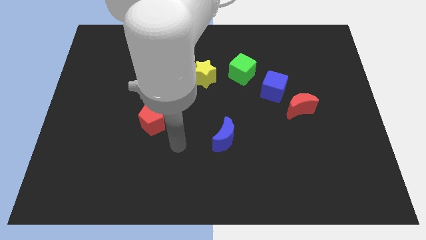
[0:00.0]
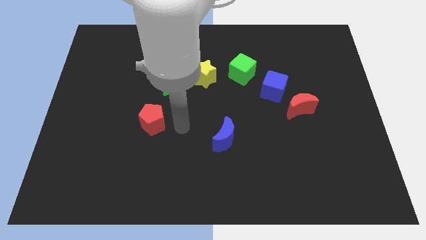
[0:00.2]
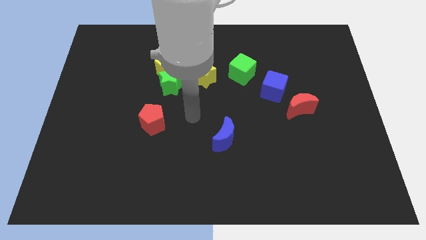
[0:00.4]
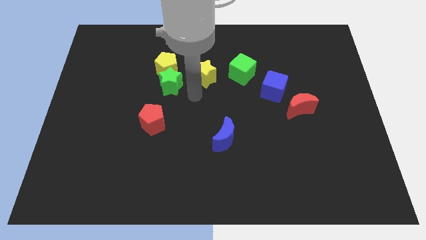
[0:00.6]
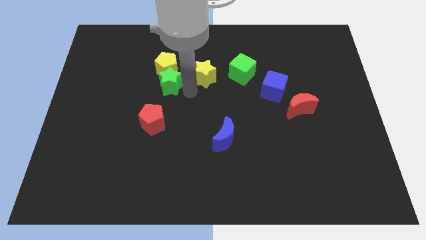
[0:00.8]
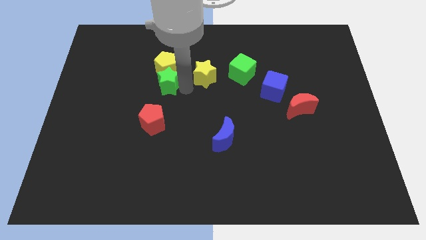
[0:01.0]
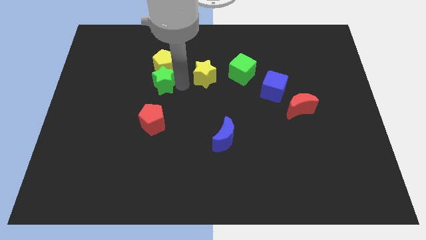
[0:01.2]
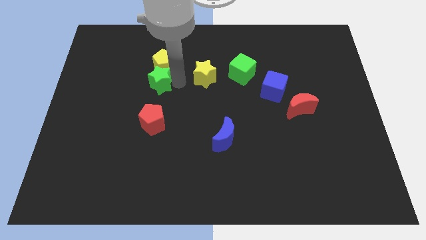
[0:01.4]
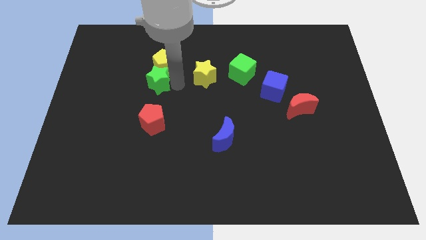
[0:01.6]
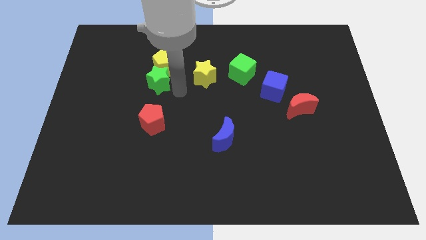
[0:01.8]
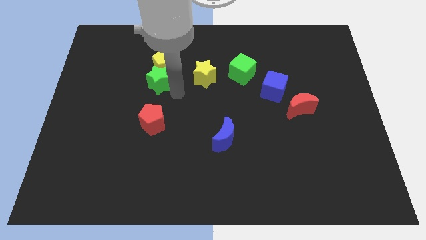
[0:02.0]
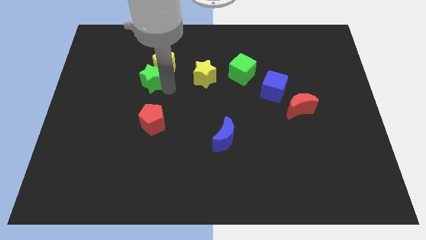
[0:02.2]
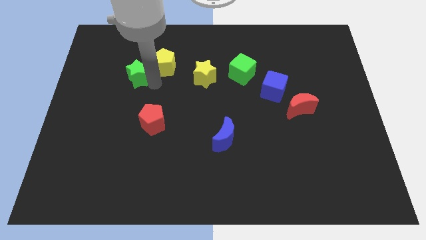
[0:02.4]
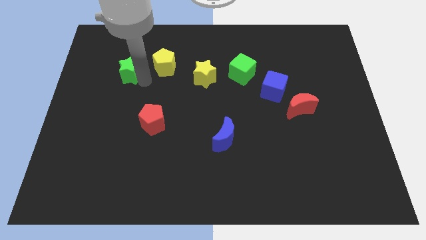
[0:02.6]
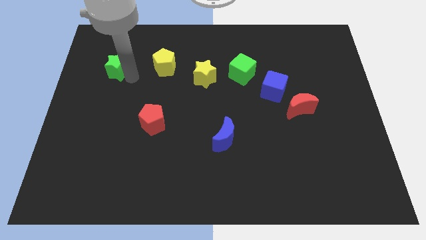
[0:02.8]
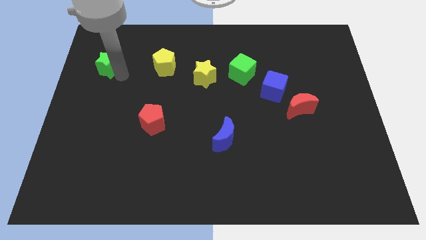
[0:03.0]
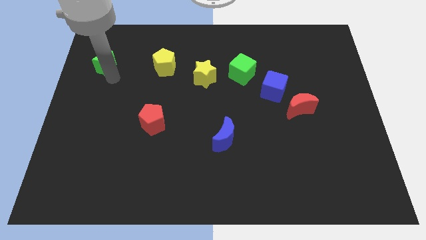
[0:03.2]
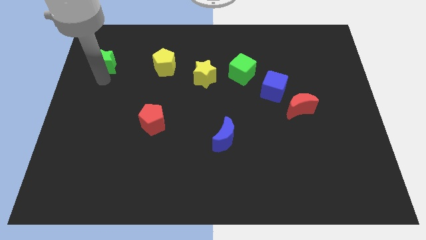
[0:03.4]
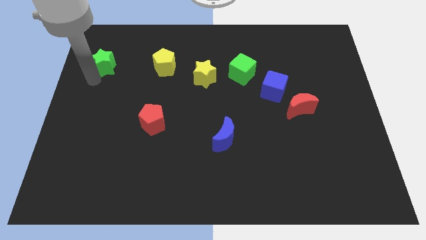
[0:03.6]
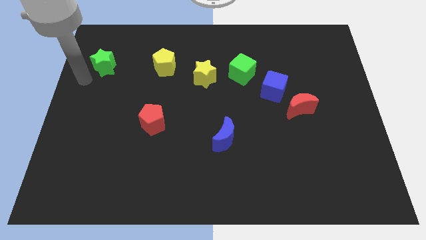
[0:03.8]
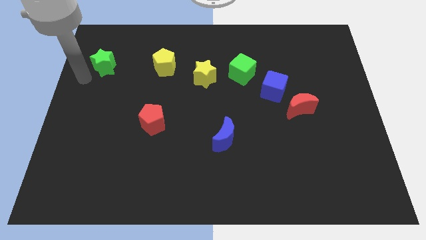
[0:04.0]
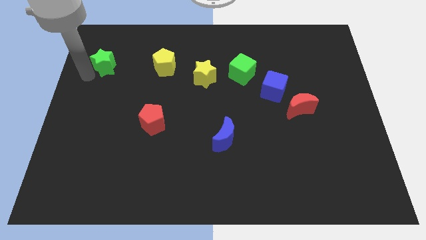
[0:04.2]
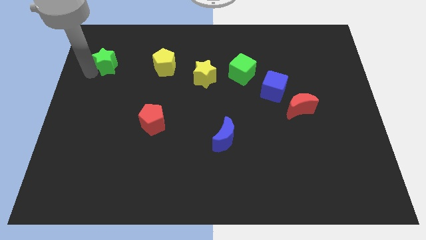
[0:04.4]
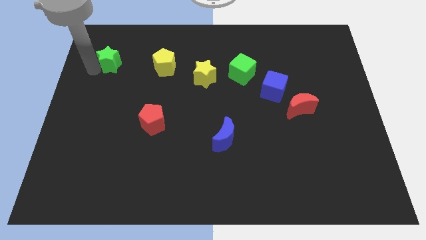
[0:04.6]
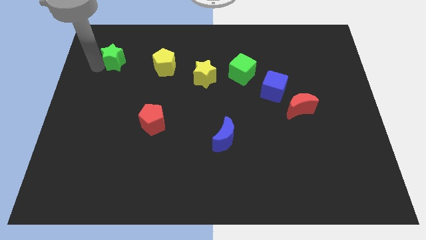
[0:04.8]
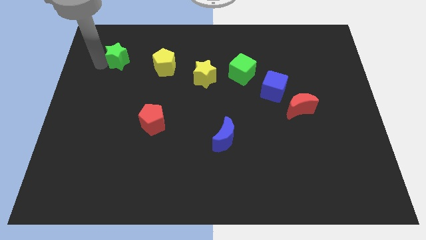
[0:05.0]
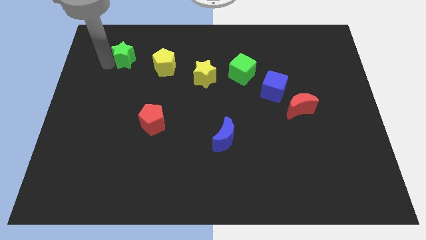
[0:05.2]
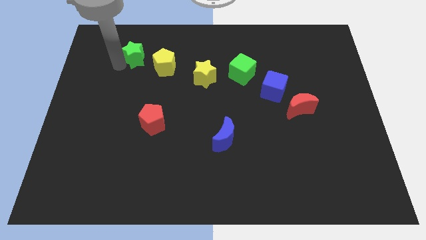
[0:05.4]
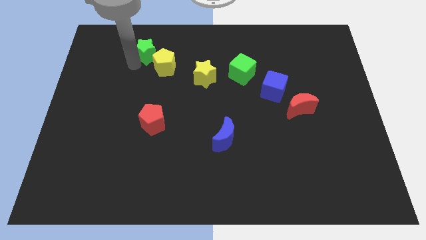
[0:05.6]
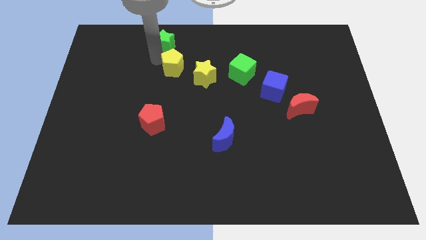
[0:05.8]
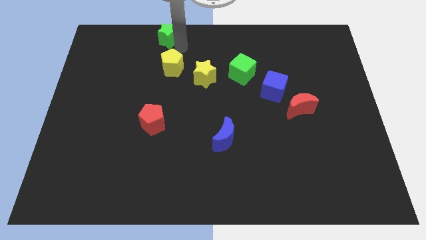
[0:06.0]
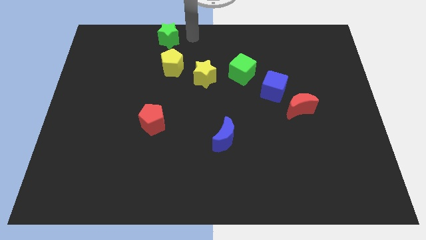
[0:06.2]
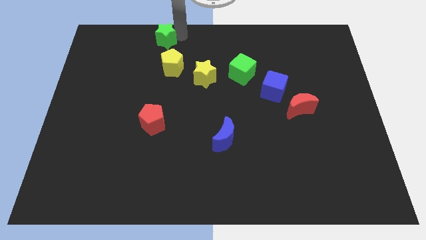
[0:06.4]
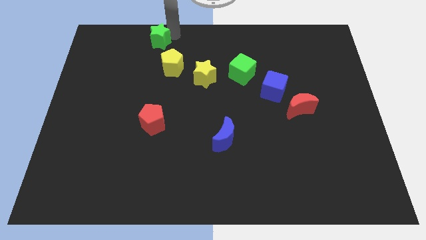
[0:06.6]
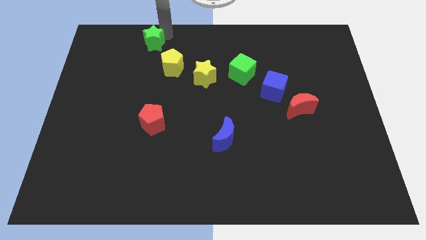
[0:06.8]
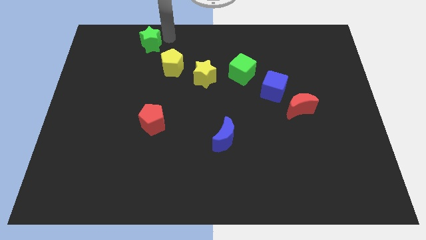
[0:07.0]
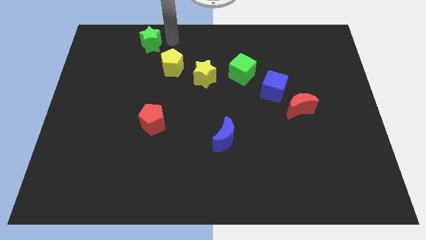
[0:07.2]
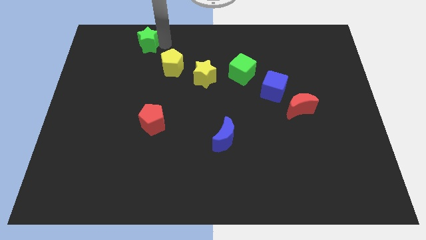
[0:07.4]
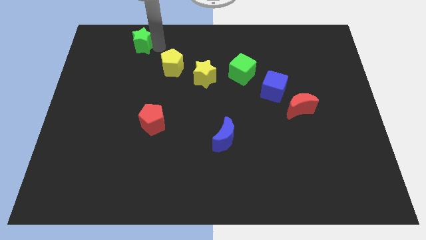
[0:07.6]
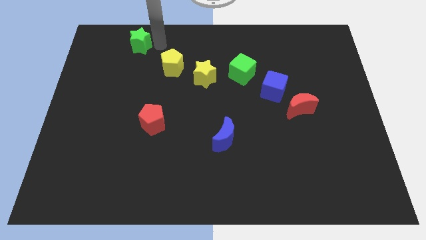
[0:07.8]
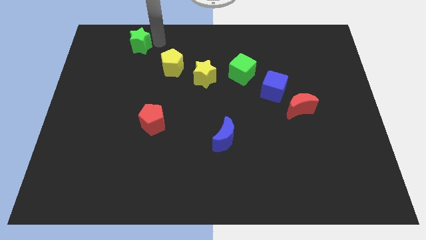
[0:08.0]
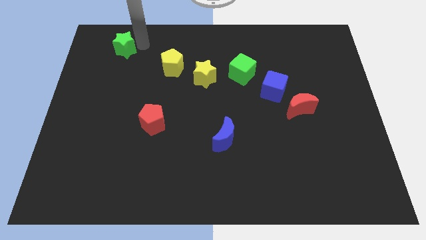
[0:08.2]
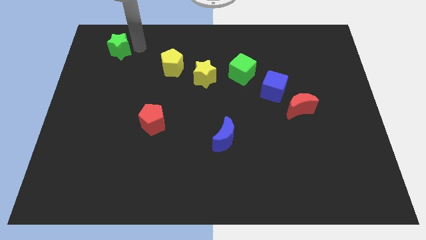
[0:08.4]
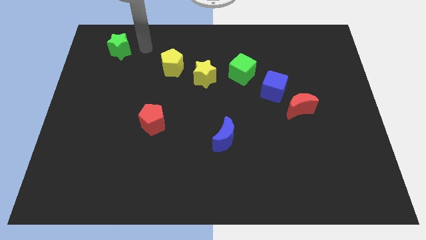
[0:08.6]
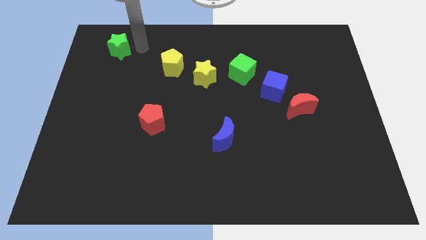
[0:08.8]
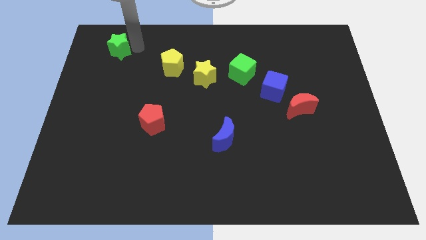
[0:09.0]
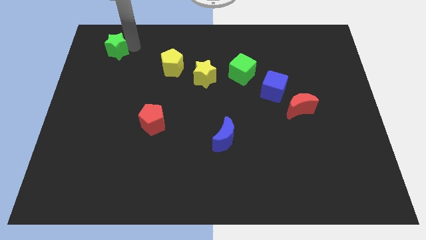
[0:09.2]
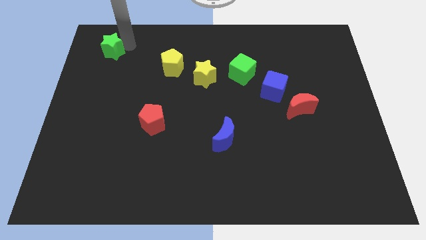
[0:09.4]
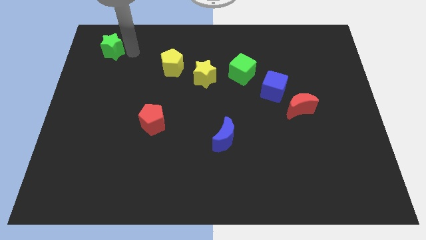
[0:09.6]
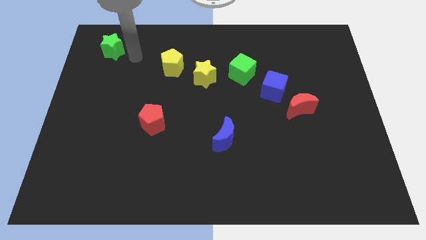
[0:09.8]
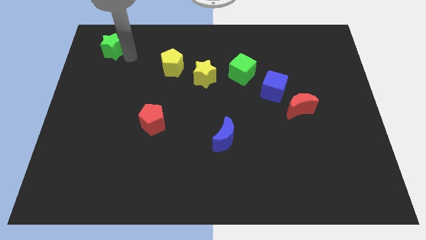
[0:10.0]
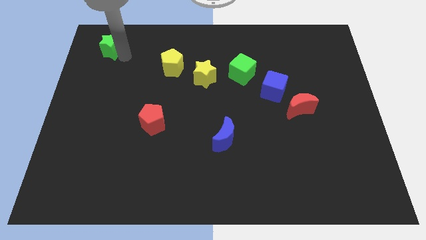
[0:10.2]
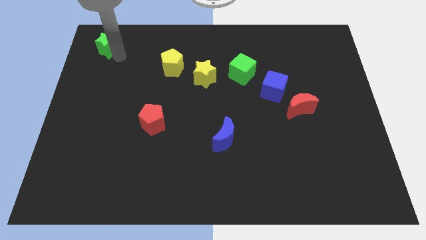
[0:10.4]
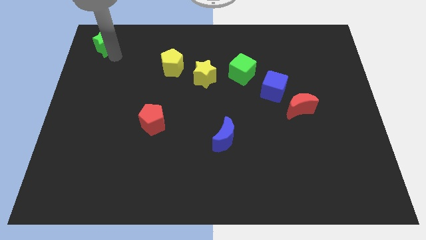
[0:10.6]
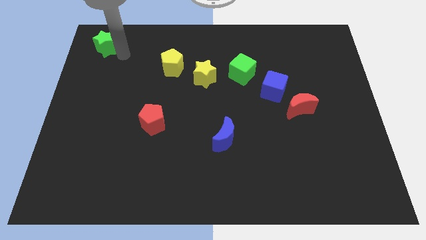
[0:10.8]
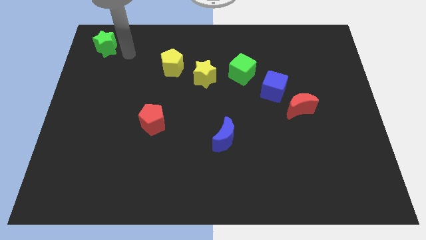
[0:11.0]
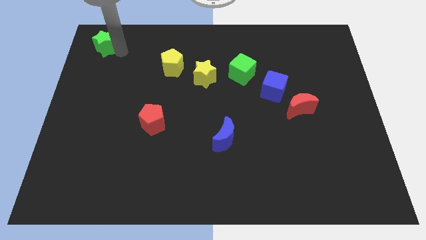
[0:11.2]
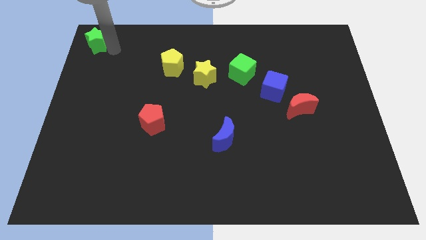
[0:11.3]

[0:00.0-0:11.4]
slide the green star to the top left corner
